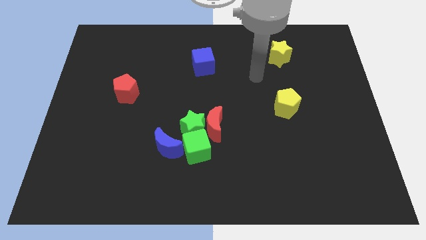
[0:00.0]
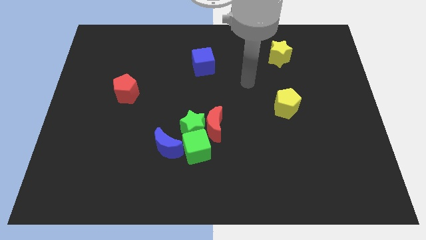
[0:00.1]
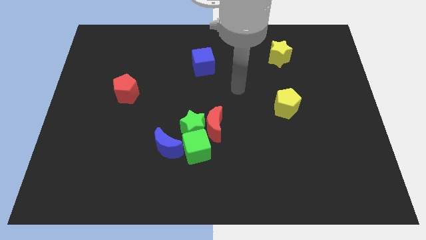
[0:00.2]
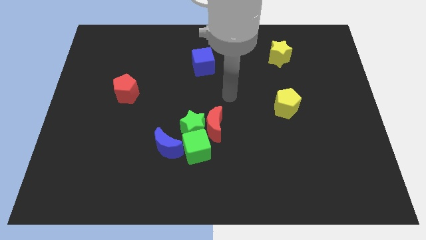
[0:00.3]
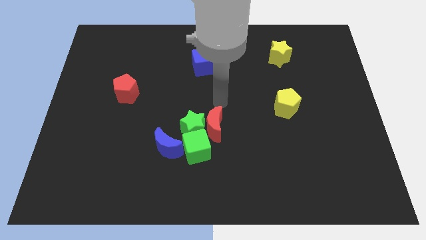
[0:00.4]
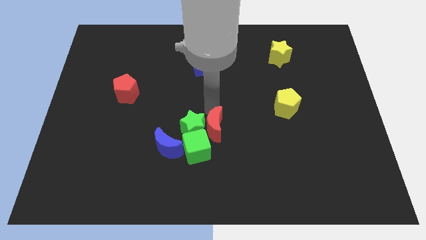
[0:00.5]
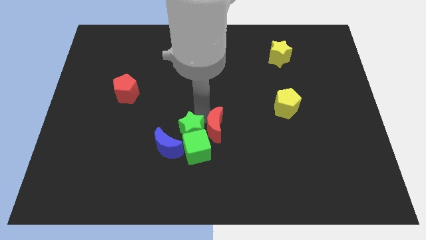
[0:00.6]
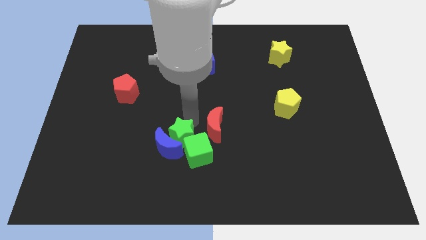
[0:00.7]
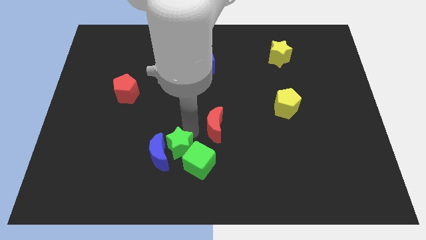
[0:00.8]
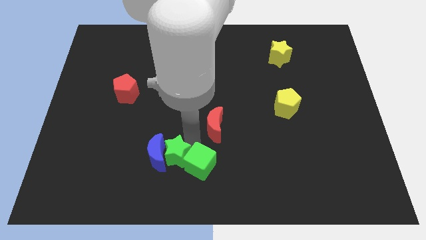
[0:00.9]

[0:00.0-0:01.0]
move the red moon away from the green star and green cube

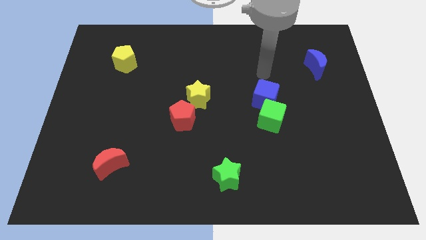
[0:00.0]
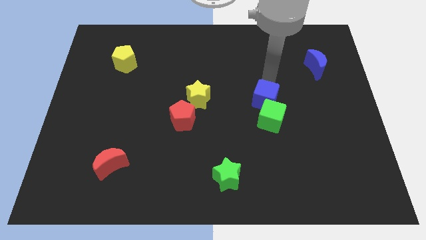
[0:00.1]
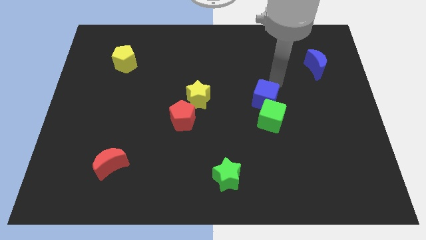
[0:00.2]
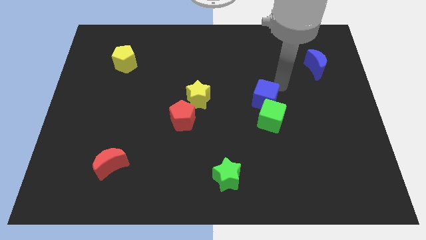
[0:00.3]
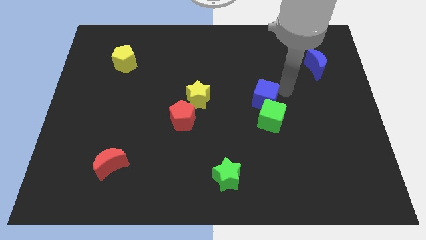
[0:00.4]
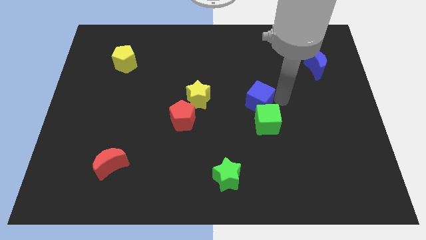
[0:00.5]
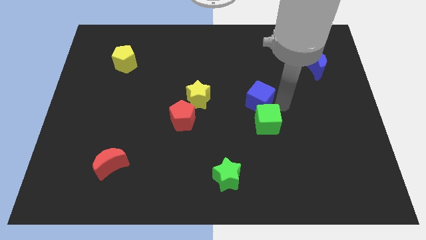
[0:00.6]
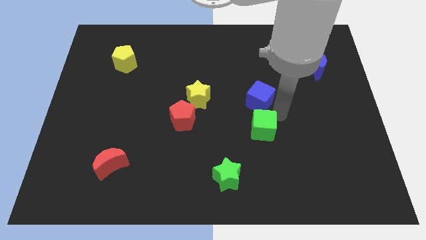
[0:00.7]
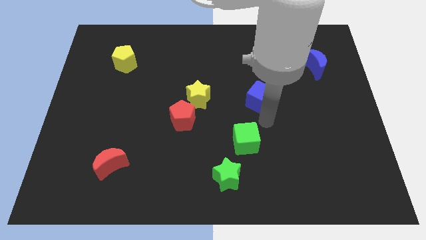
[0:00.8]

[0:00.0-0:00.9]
move the blue cube away from the green cube

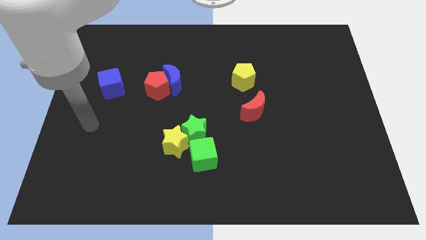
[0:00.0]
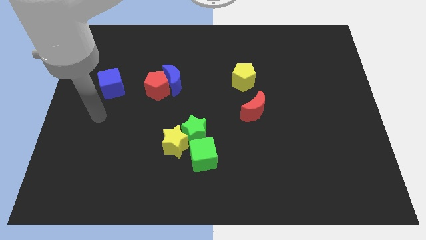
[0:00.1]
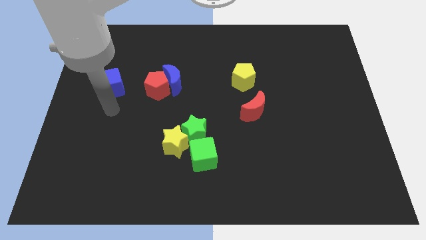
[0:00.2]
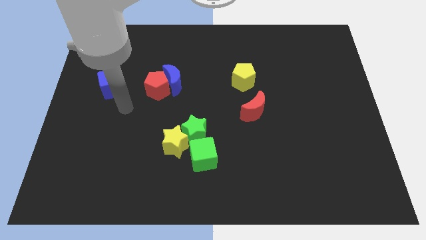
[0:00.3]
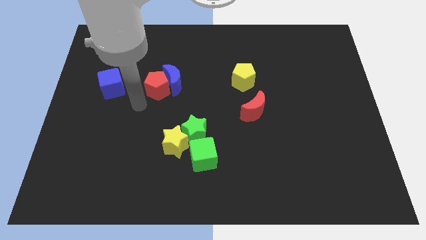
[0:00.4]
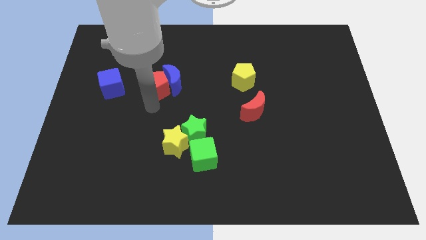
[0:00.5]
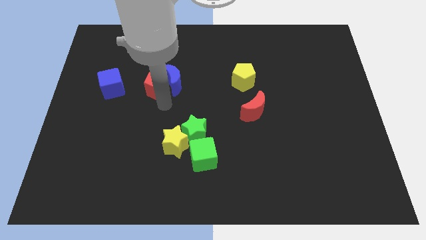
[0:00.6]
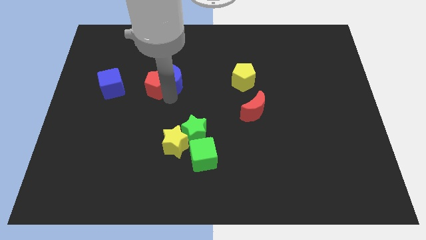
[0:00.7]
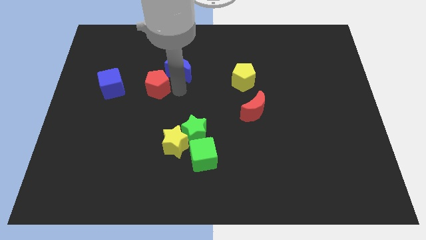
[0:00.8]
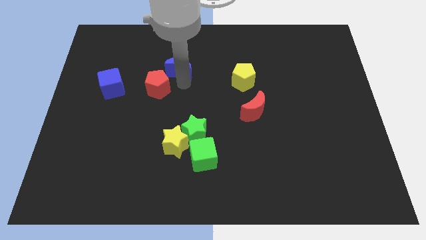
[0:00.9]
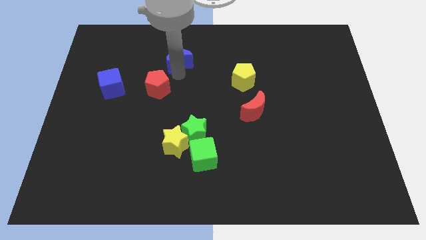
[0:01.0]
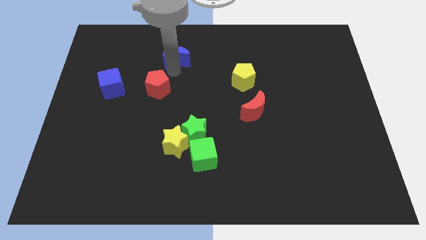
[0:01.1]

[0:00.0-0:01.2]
move the red pentagon away from the blue moon

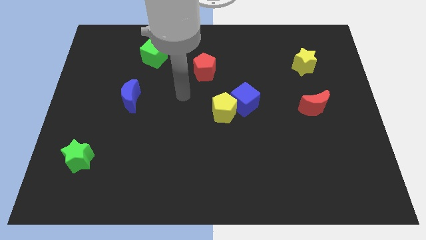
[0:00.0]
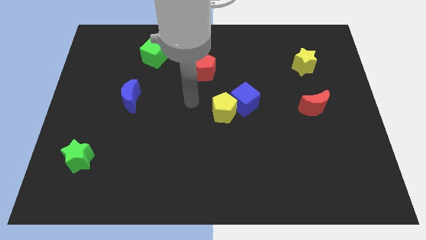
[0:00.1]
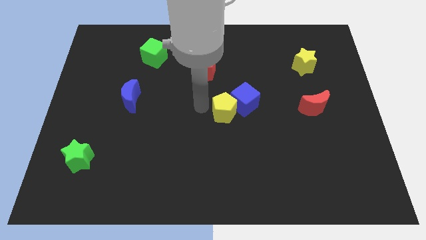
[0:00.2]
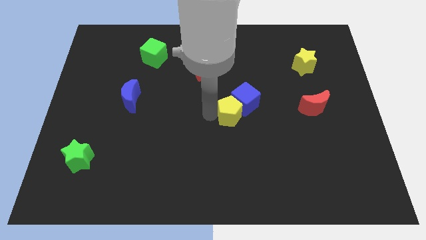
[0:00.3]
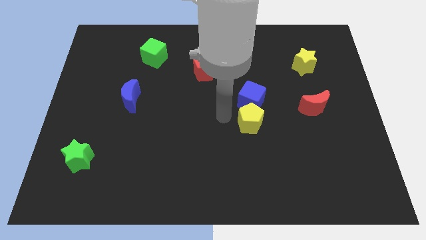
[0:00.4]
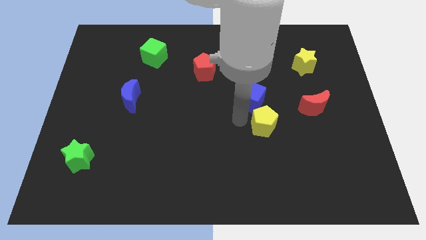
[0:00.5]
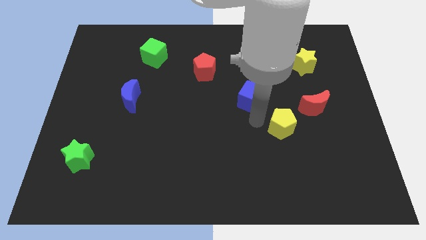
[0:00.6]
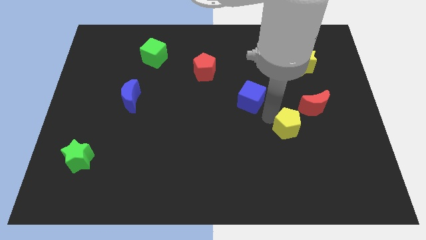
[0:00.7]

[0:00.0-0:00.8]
move the blue cube away from the yellow pentagon

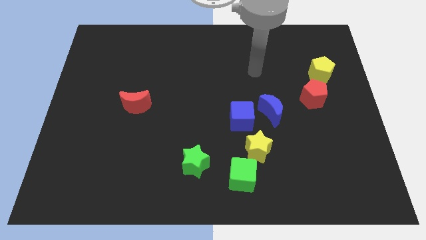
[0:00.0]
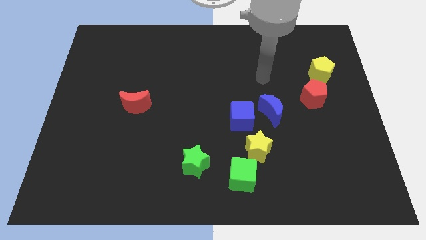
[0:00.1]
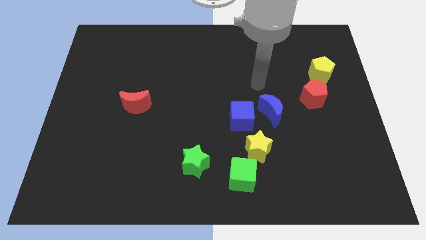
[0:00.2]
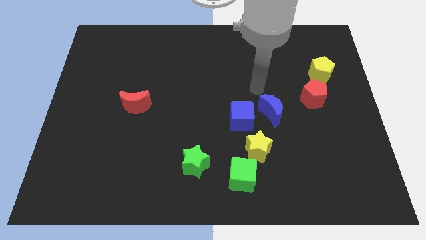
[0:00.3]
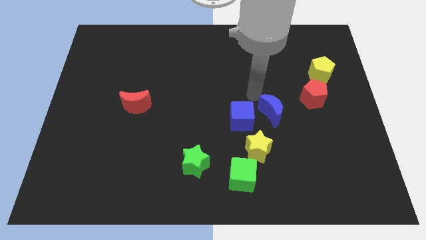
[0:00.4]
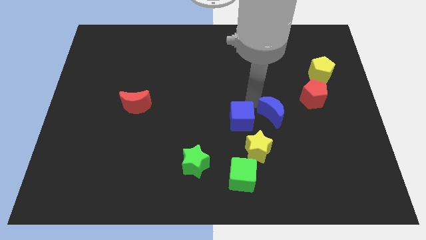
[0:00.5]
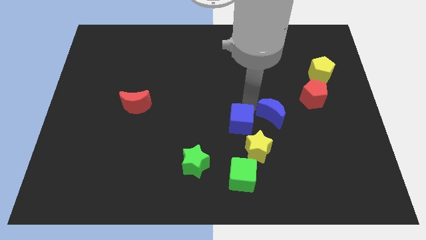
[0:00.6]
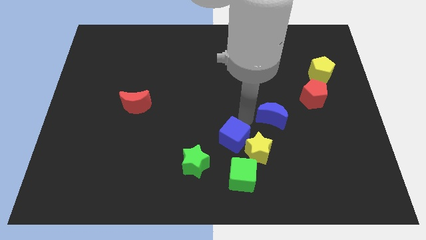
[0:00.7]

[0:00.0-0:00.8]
pull the blue moon apart from the blue cube

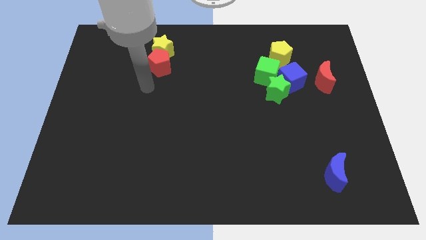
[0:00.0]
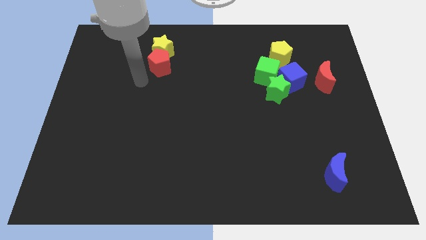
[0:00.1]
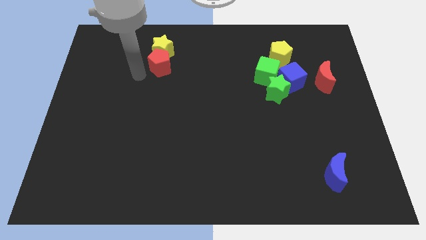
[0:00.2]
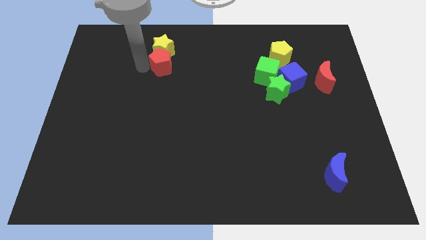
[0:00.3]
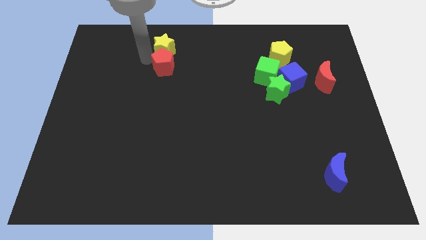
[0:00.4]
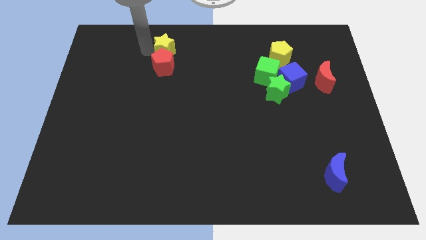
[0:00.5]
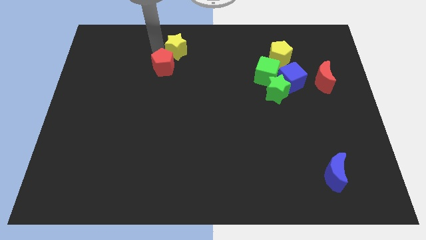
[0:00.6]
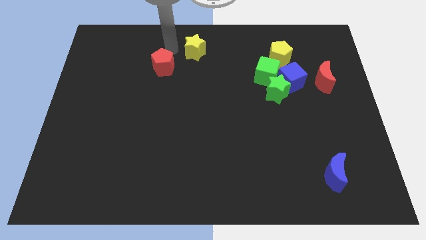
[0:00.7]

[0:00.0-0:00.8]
move the red pentagon away from the yellow star

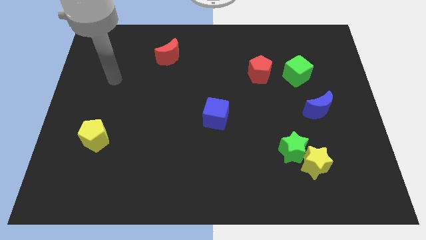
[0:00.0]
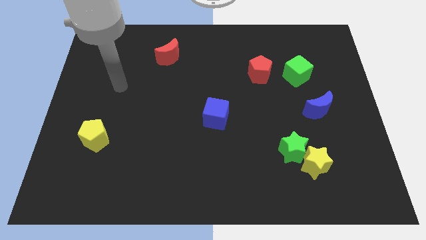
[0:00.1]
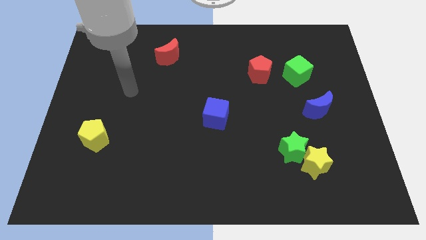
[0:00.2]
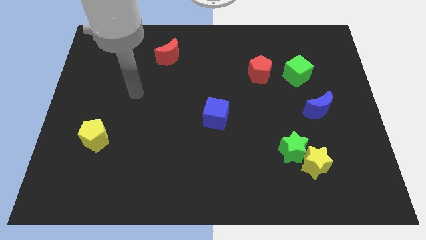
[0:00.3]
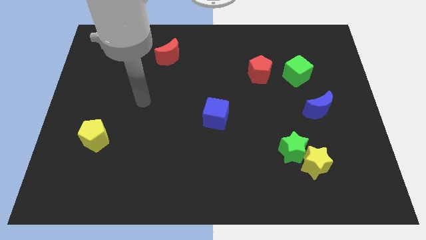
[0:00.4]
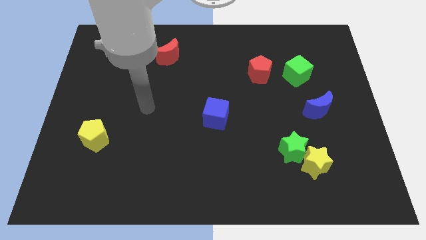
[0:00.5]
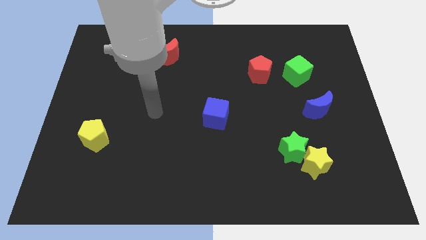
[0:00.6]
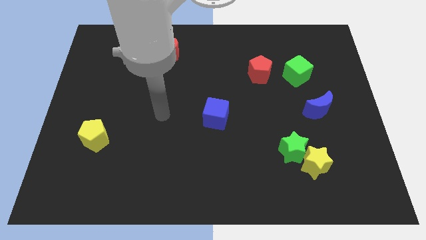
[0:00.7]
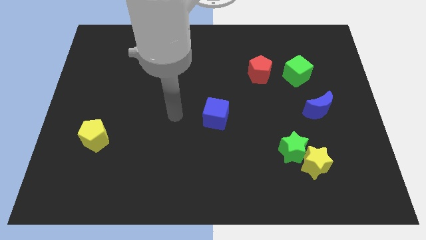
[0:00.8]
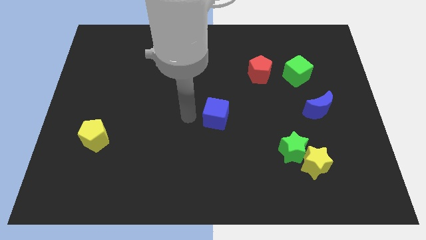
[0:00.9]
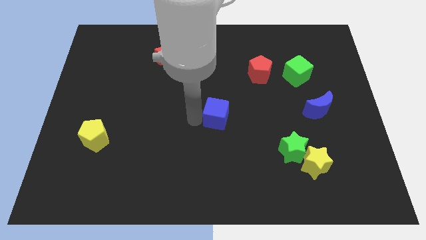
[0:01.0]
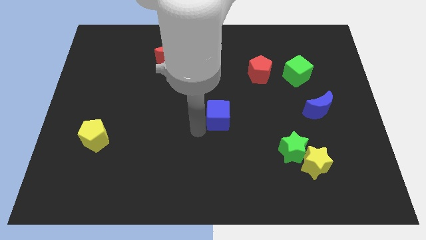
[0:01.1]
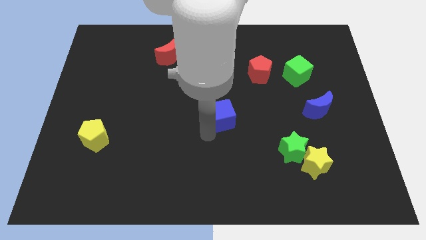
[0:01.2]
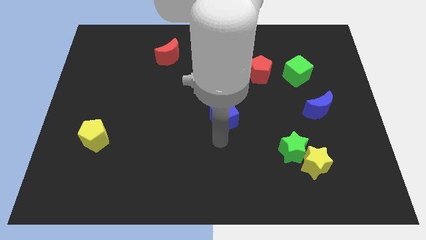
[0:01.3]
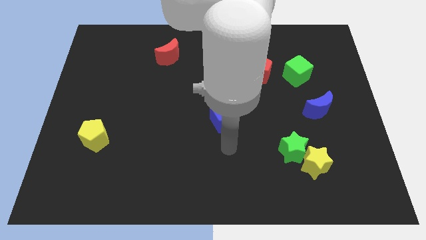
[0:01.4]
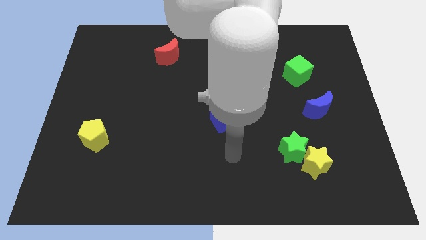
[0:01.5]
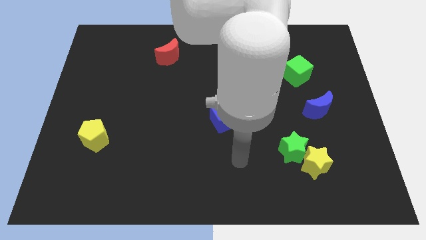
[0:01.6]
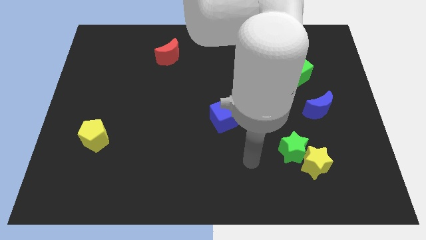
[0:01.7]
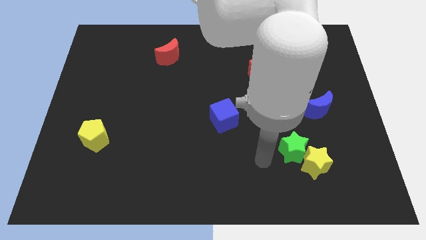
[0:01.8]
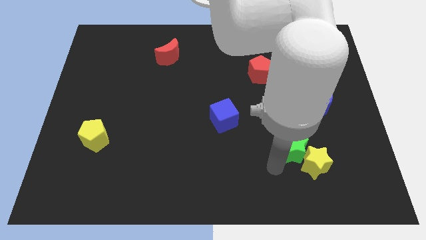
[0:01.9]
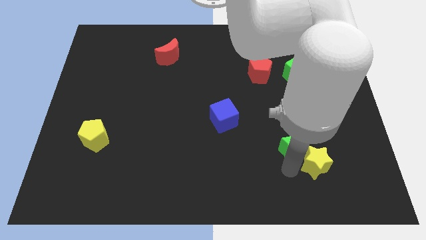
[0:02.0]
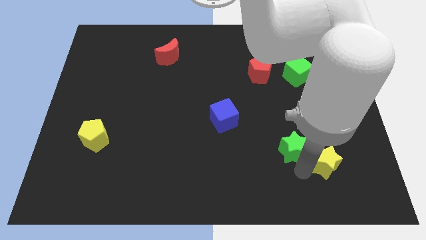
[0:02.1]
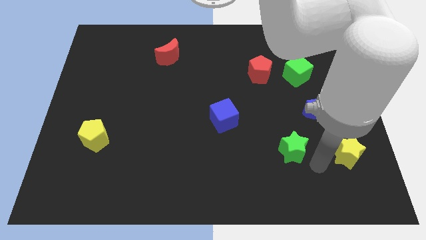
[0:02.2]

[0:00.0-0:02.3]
separate the green star from the yellow star

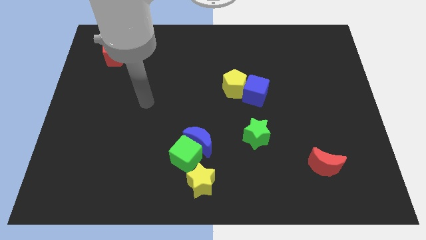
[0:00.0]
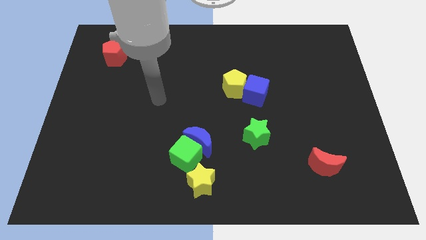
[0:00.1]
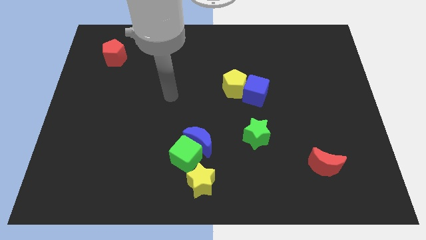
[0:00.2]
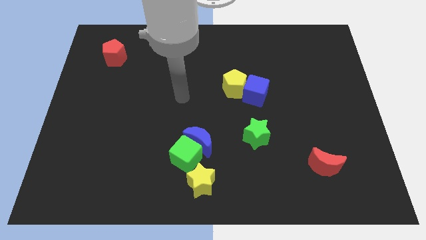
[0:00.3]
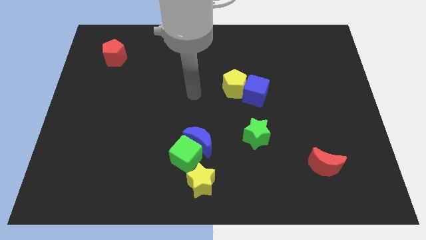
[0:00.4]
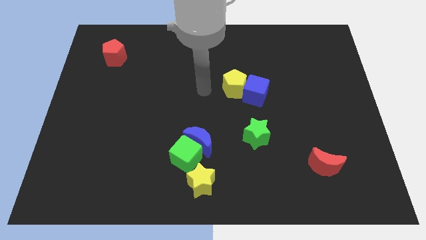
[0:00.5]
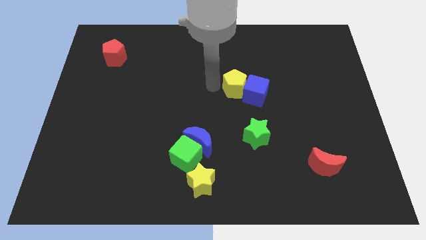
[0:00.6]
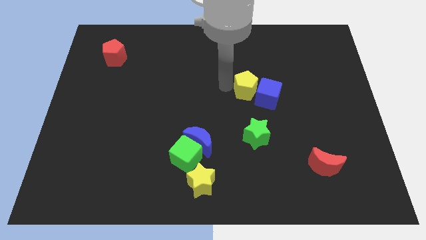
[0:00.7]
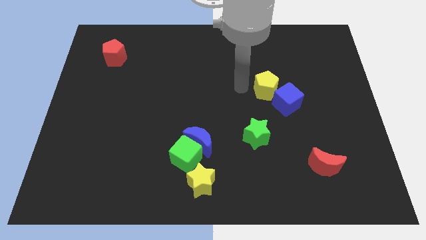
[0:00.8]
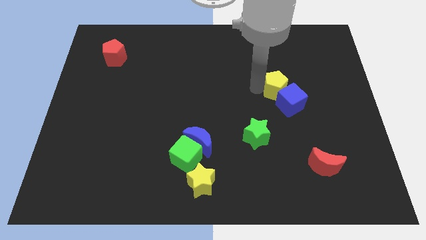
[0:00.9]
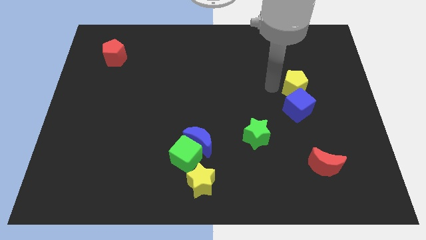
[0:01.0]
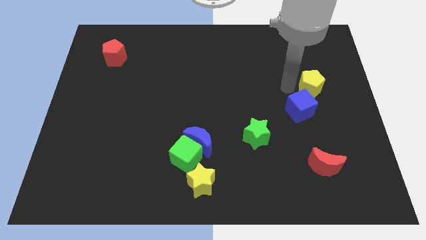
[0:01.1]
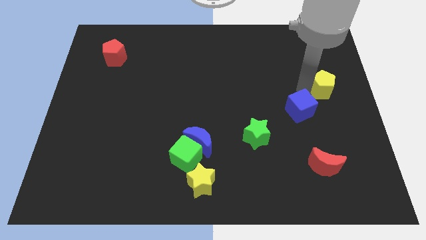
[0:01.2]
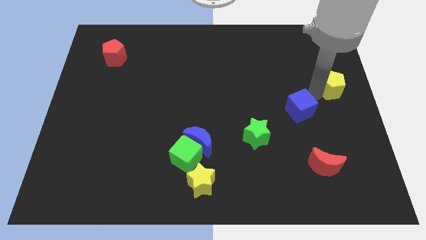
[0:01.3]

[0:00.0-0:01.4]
separate the blue cube from the yellow pentagon

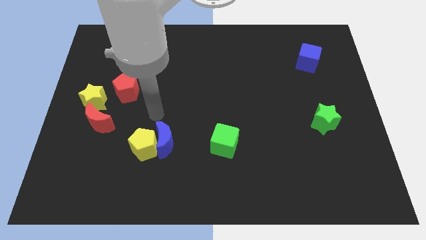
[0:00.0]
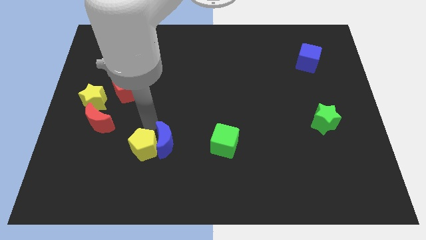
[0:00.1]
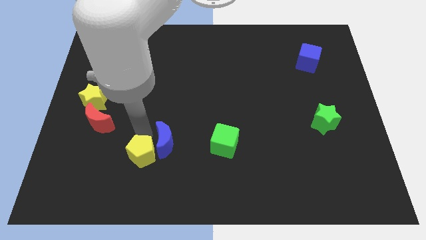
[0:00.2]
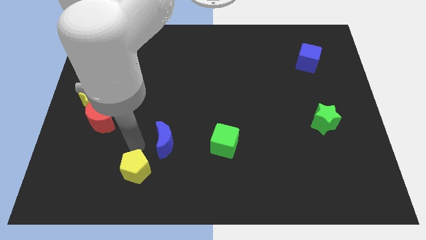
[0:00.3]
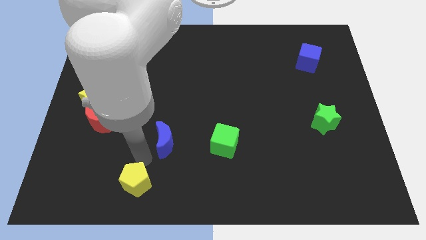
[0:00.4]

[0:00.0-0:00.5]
move the blue moon away from the yellow pentagon
